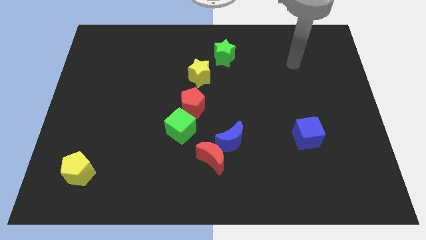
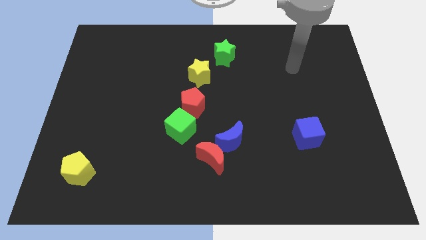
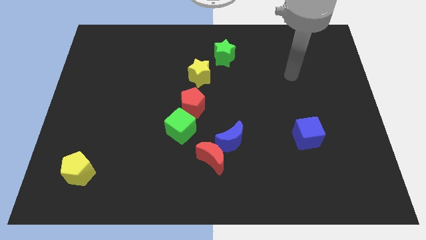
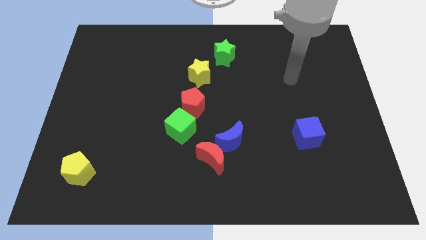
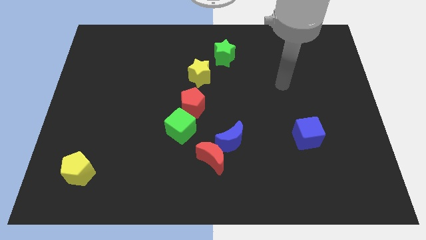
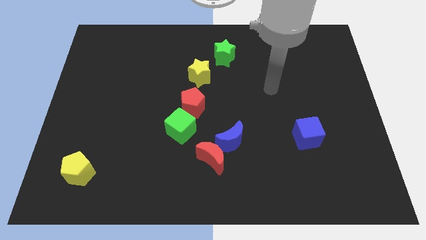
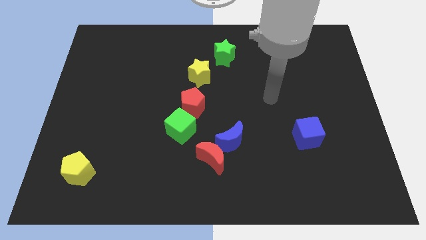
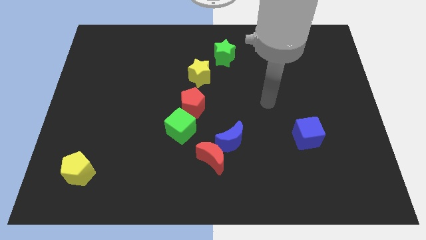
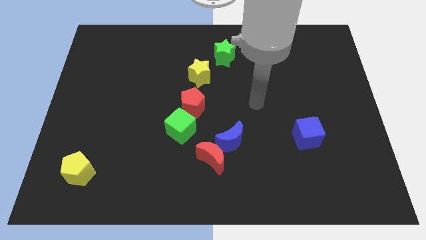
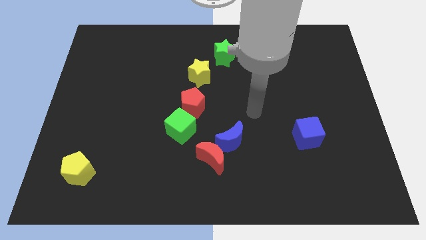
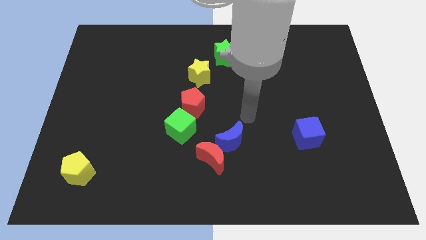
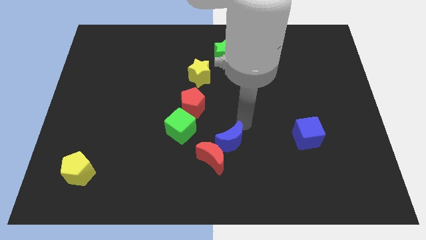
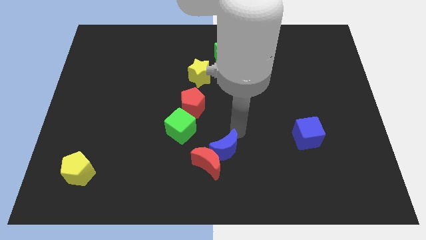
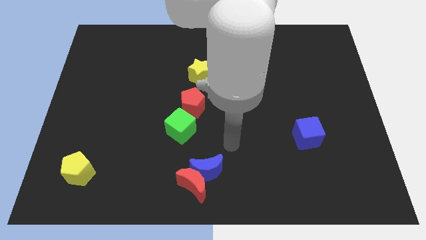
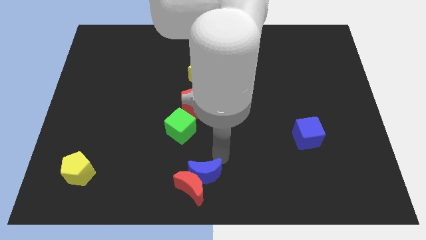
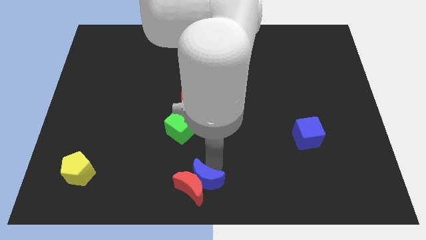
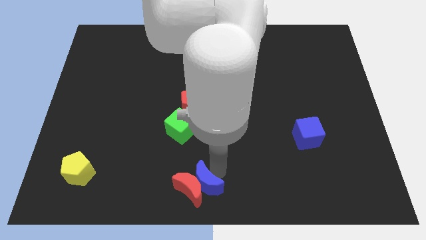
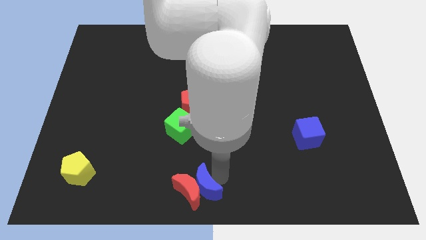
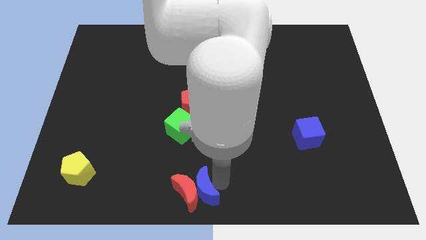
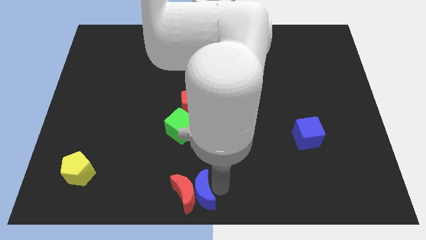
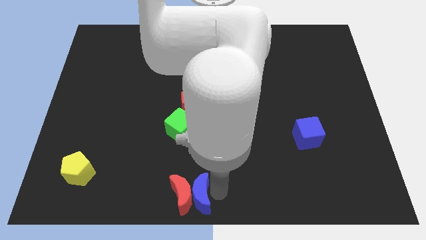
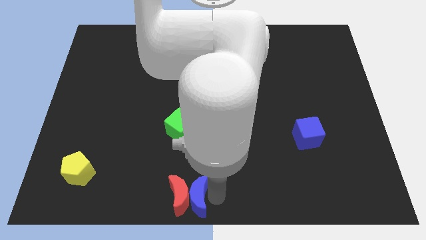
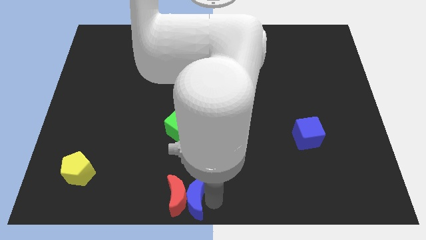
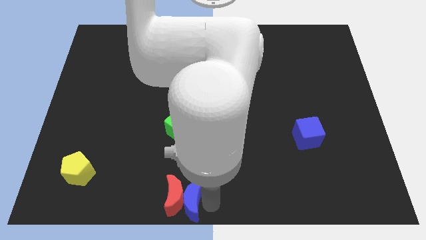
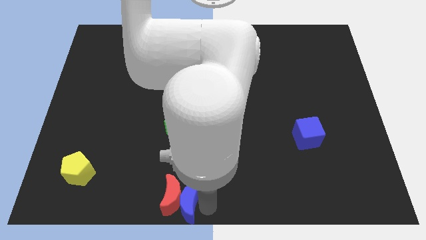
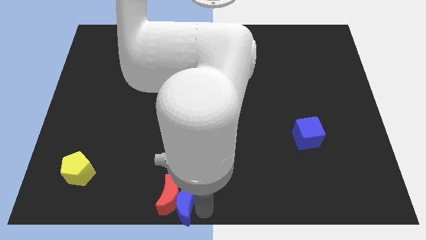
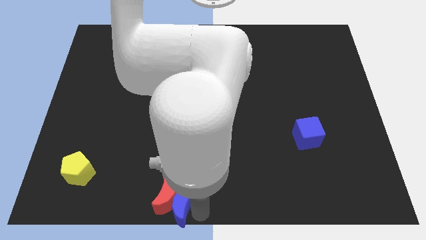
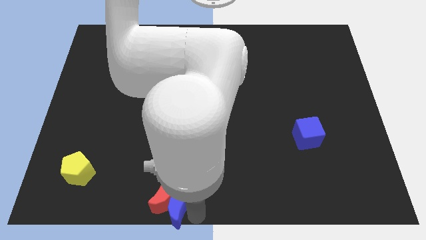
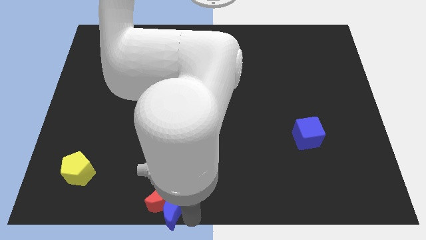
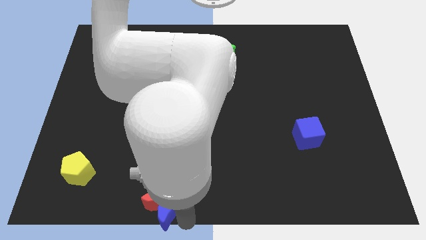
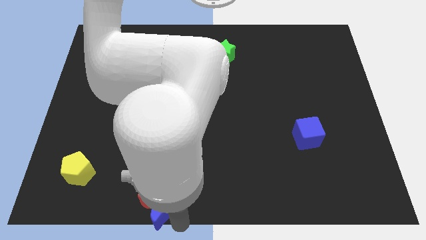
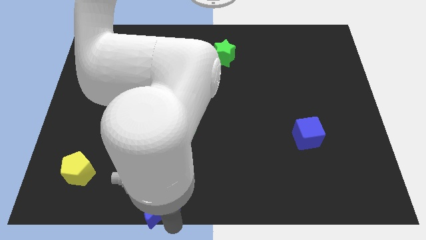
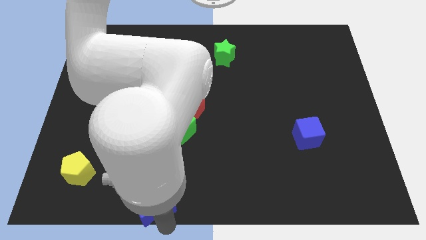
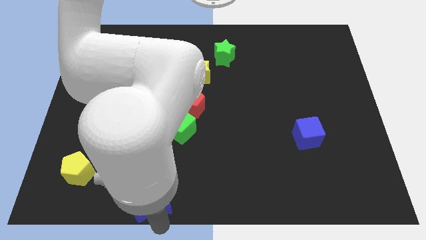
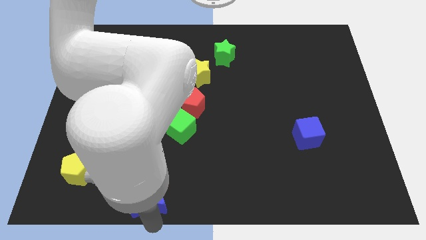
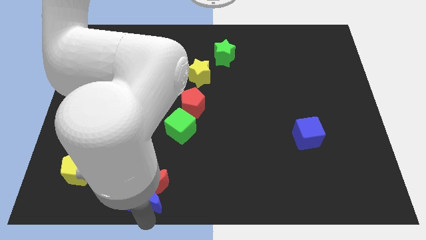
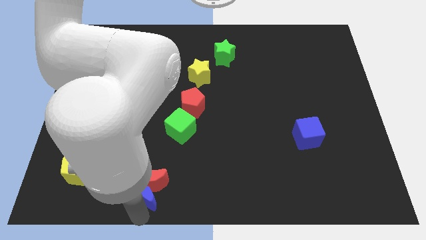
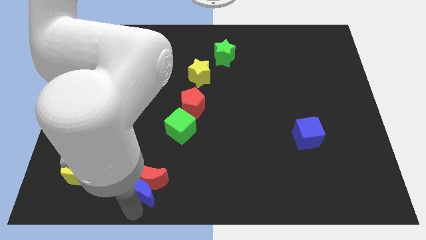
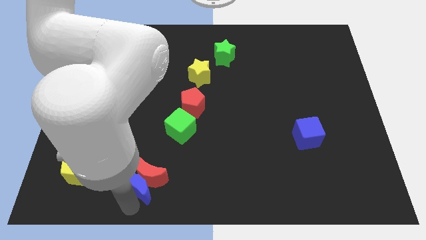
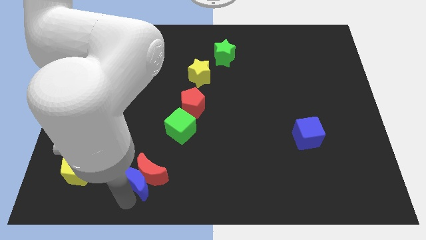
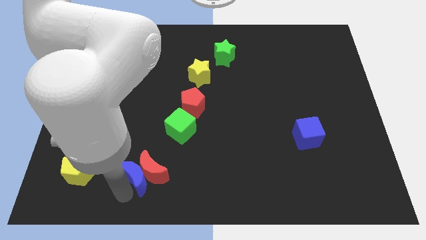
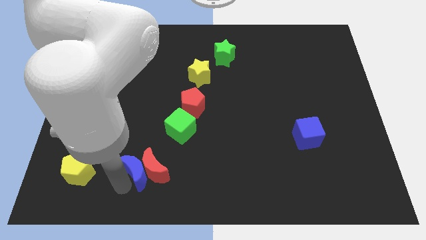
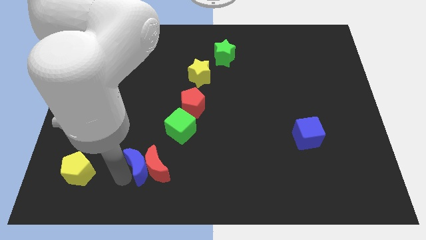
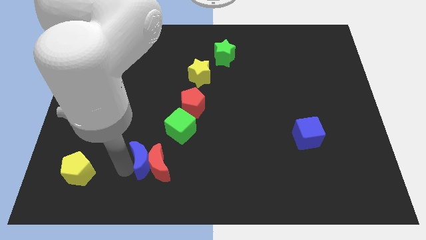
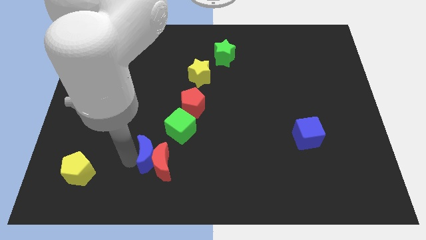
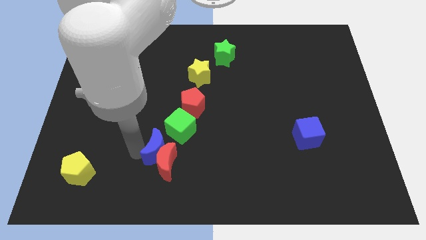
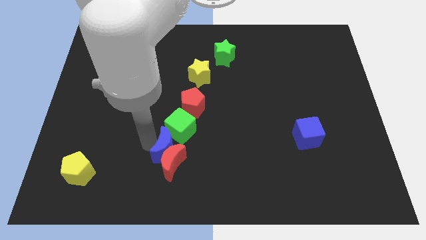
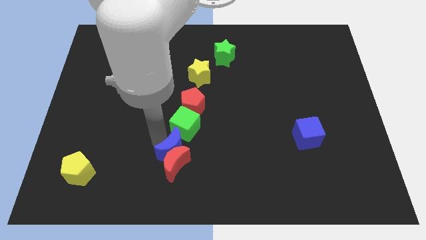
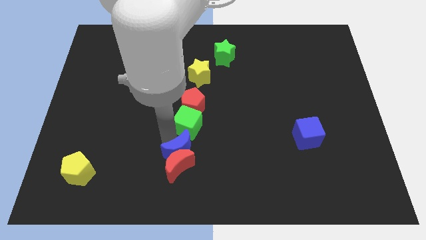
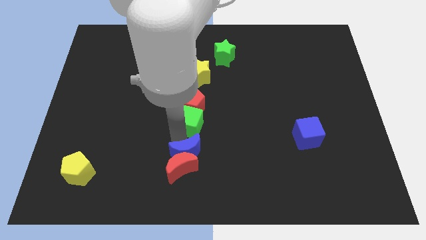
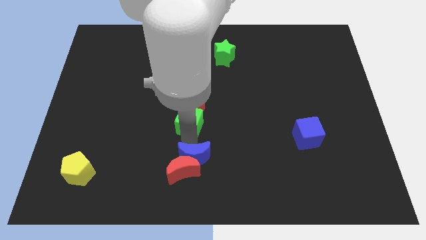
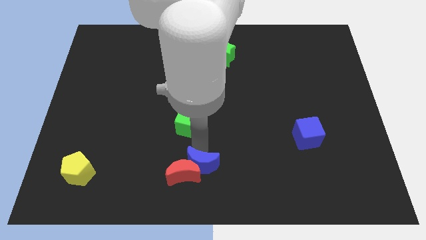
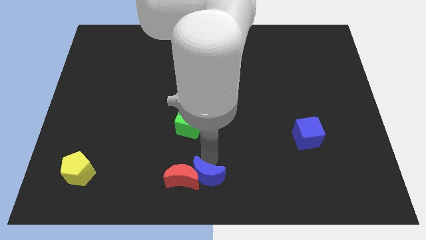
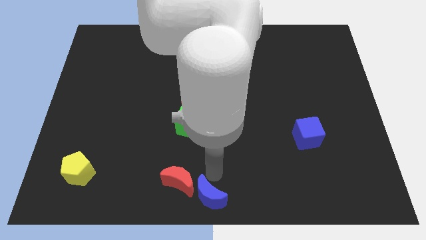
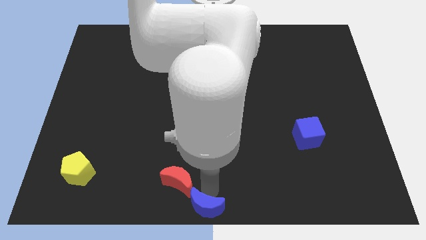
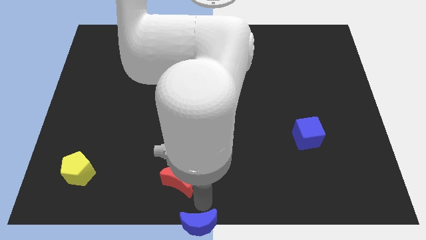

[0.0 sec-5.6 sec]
separate the red moon from the blue moon

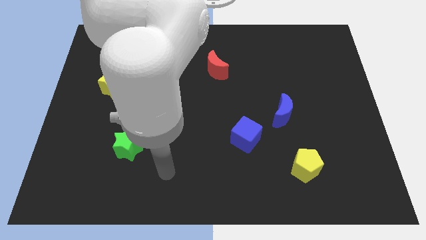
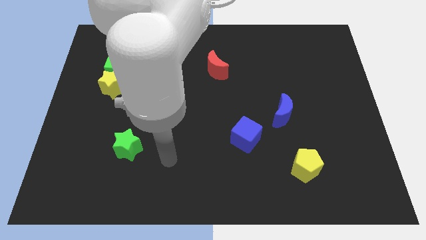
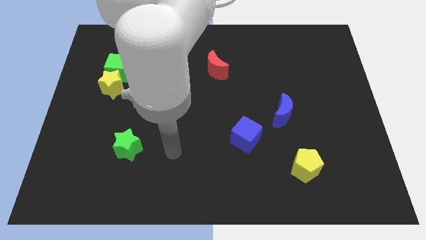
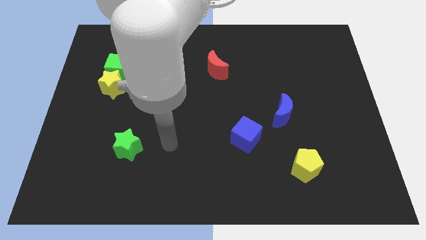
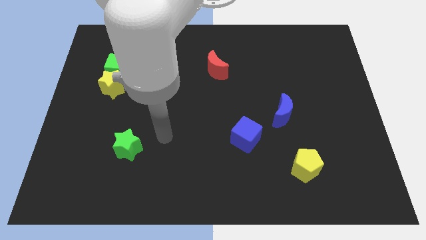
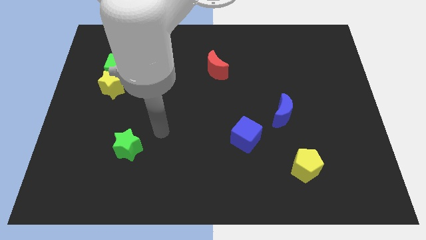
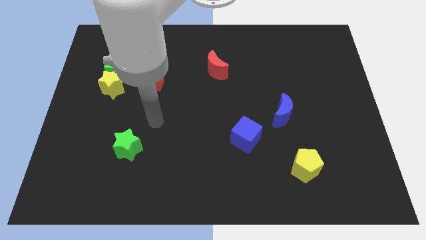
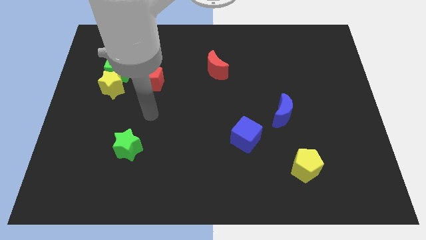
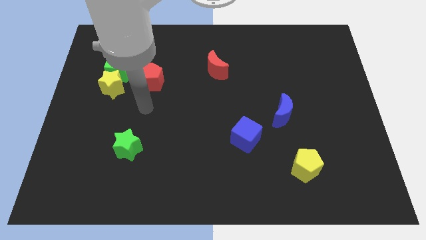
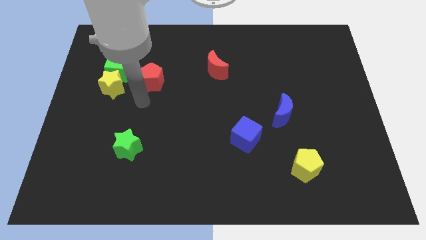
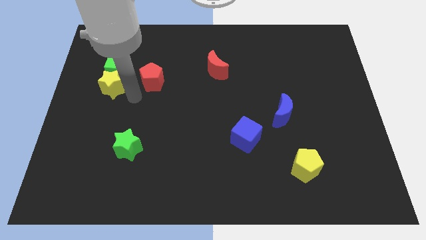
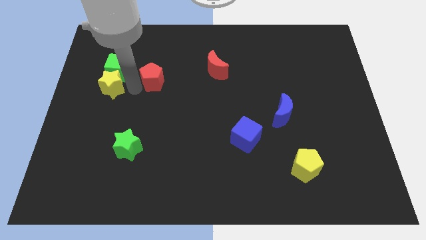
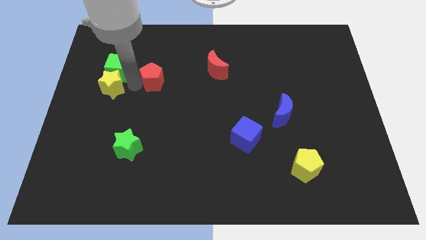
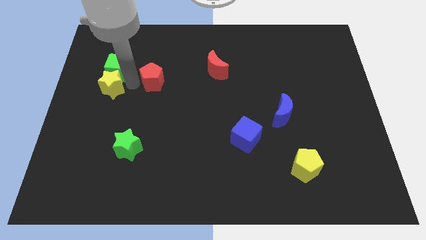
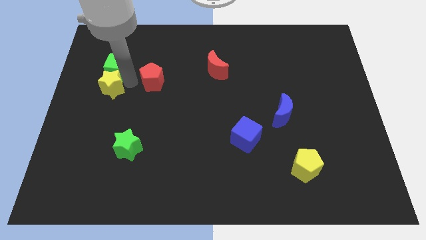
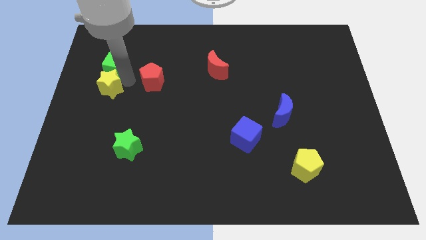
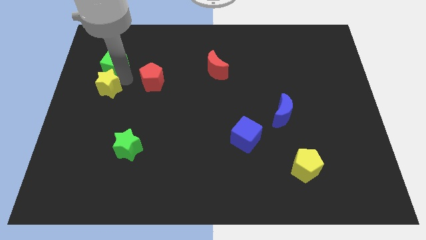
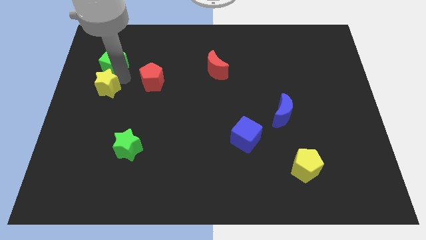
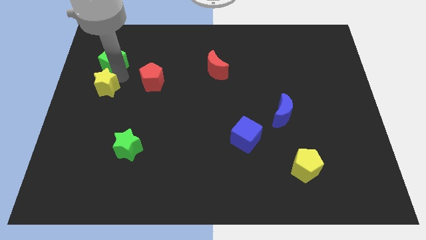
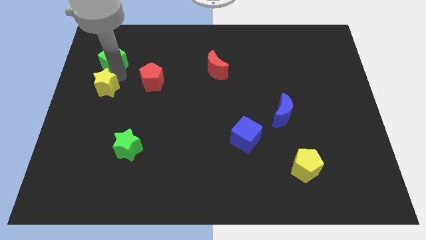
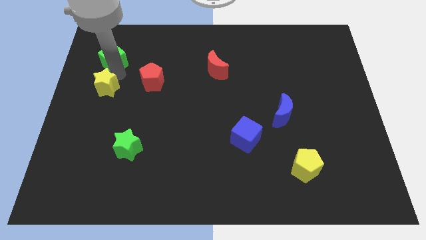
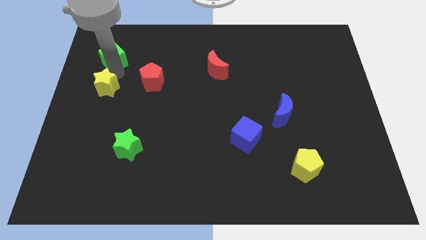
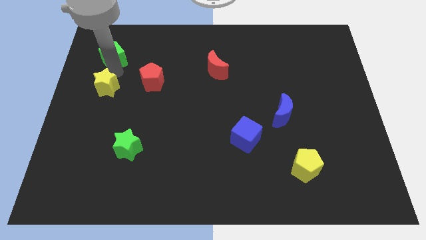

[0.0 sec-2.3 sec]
pull the green cube apart from the yellow star and red pentagon

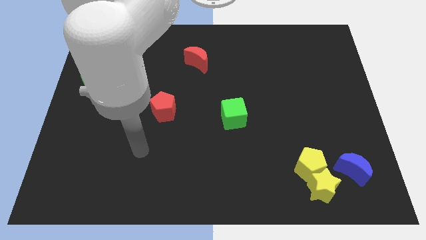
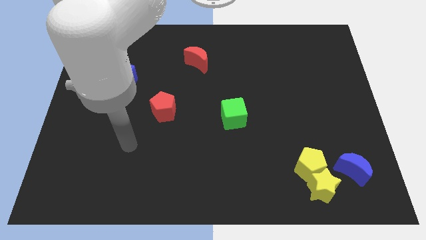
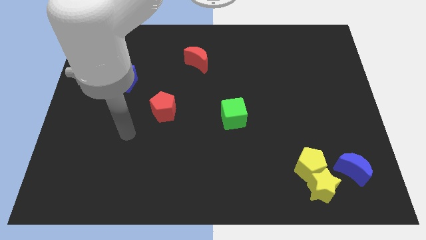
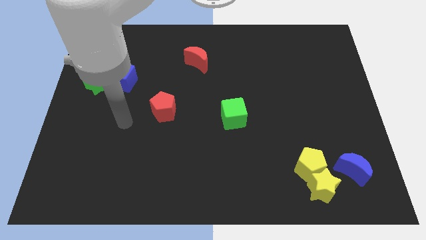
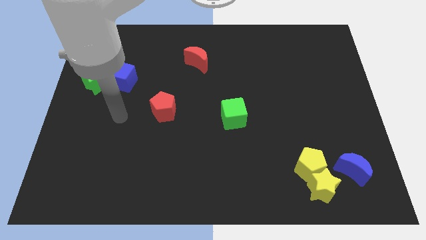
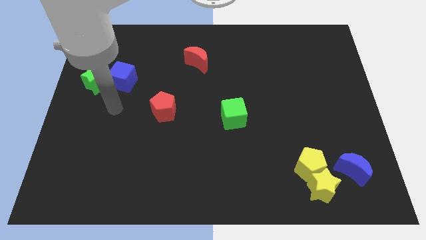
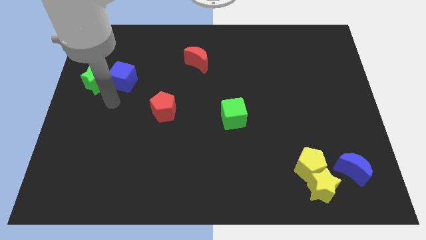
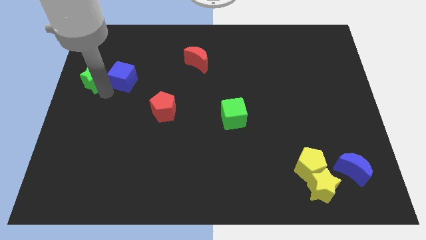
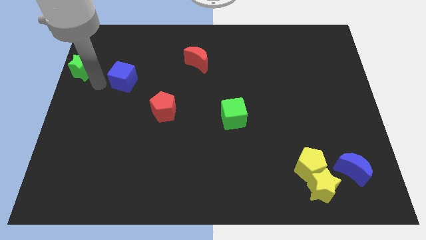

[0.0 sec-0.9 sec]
pull the blue cube apart from the green star

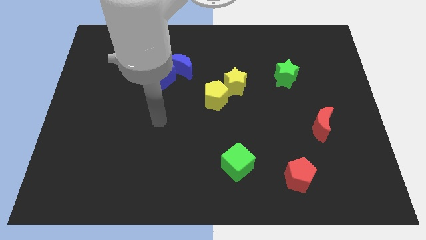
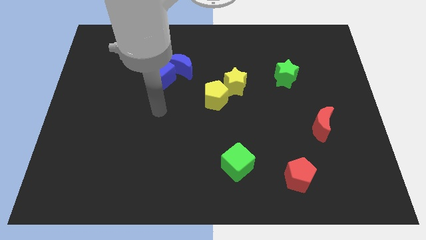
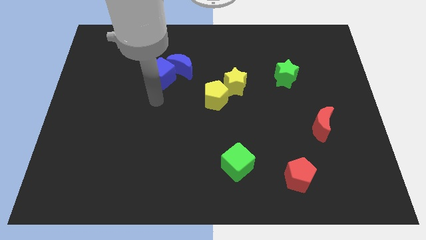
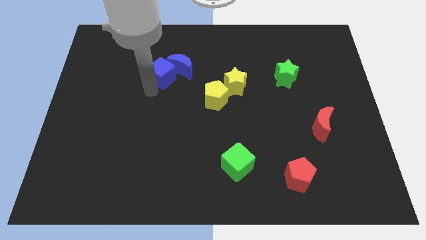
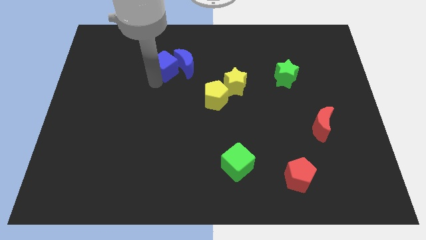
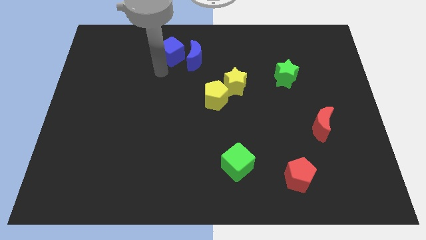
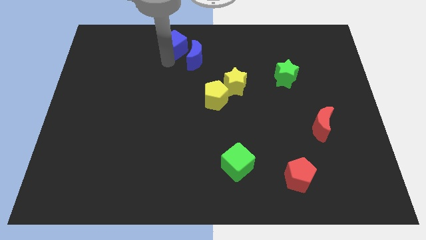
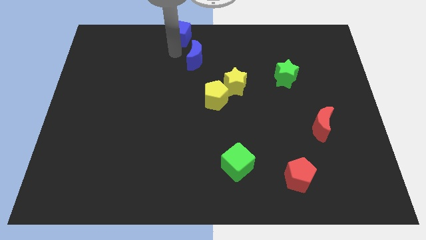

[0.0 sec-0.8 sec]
separate the blue moon from the blue cube
